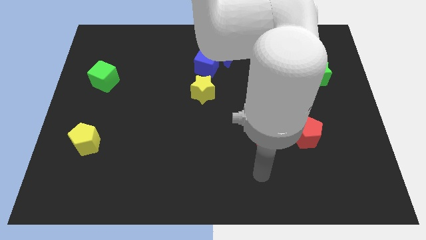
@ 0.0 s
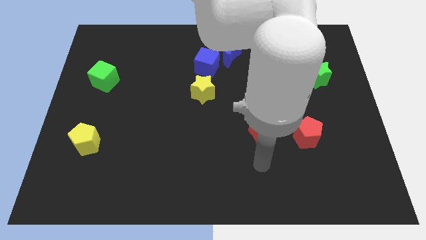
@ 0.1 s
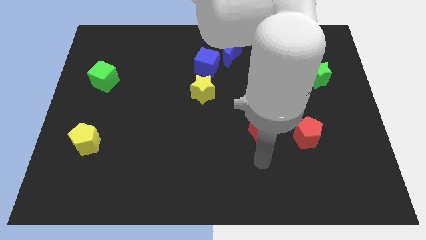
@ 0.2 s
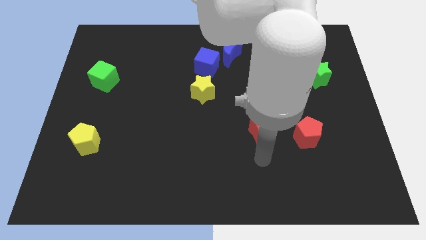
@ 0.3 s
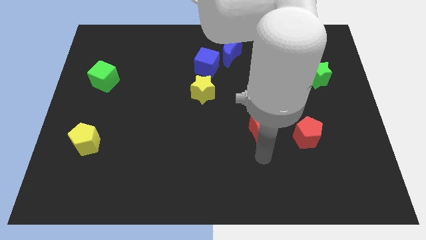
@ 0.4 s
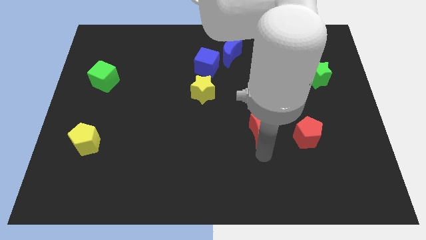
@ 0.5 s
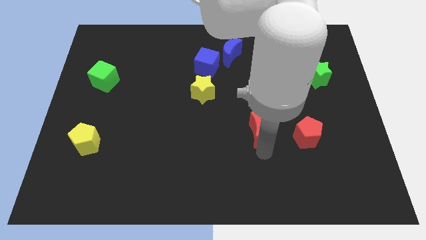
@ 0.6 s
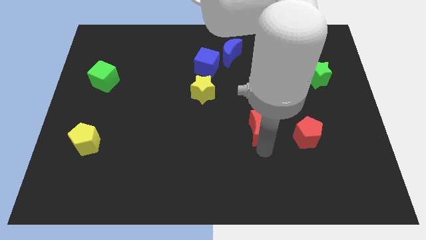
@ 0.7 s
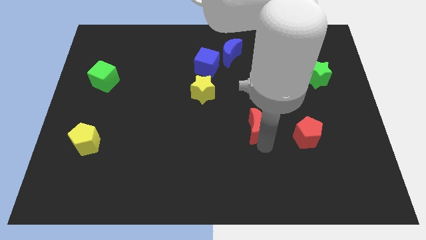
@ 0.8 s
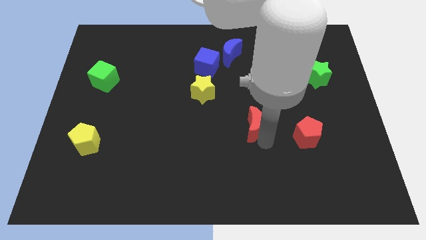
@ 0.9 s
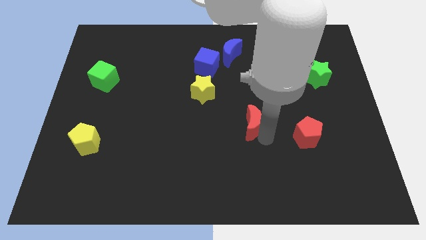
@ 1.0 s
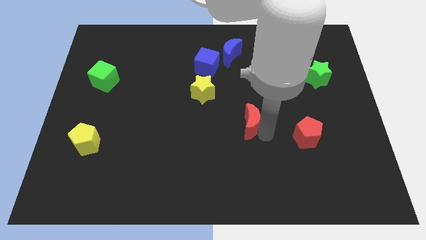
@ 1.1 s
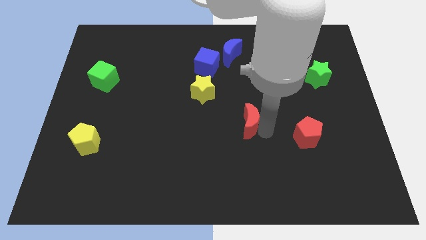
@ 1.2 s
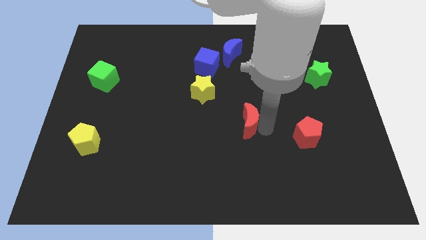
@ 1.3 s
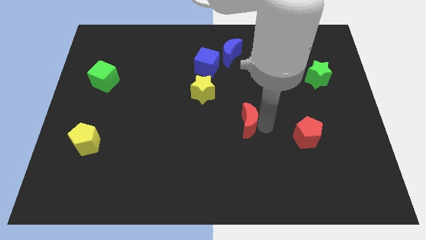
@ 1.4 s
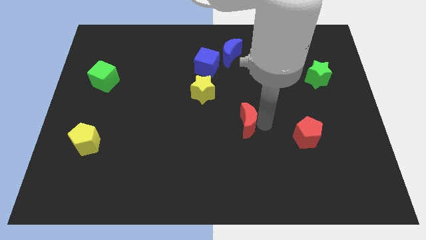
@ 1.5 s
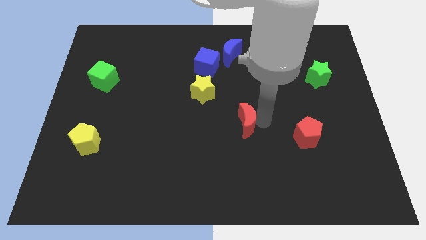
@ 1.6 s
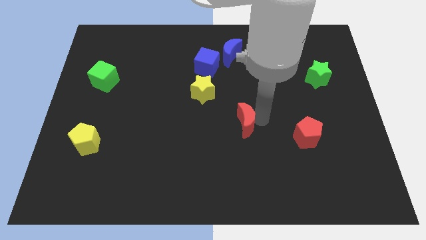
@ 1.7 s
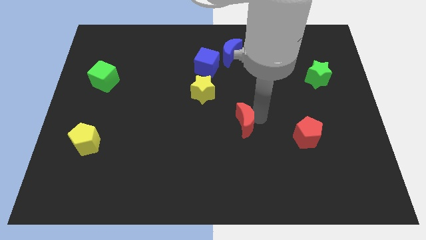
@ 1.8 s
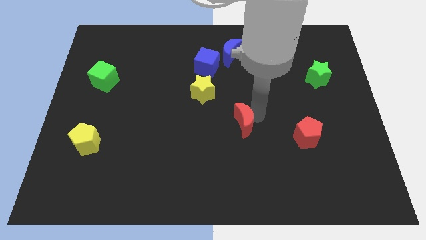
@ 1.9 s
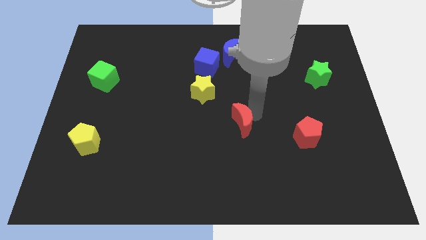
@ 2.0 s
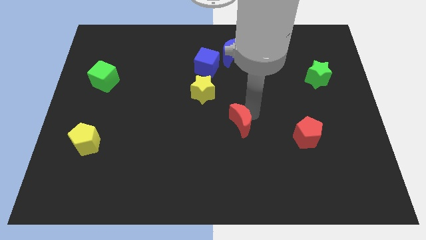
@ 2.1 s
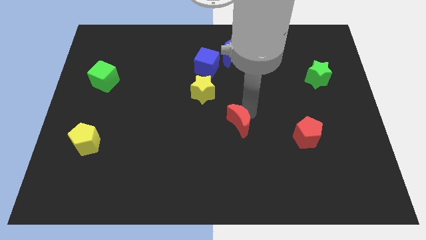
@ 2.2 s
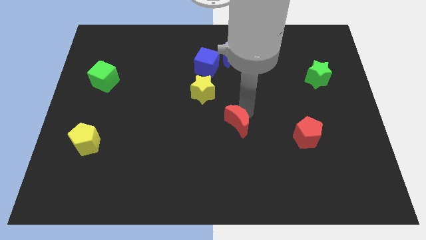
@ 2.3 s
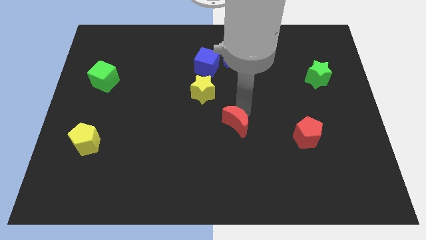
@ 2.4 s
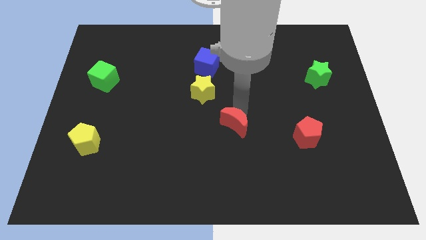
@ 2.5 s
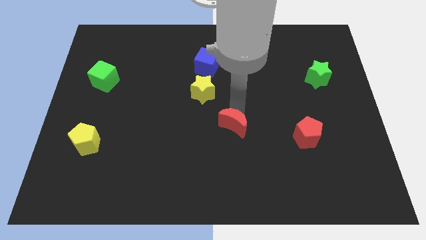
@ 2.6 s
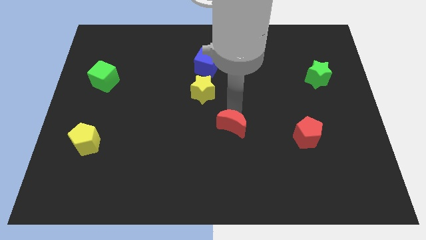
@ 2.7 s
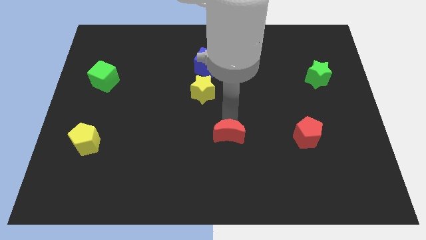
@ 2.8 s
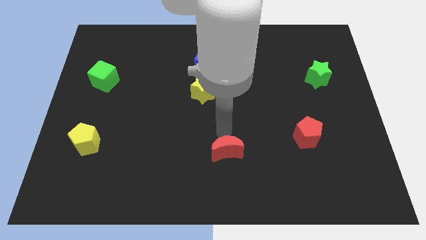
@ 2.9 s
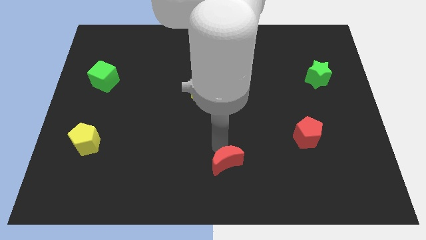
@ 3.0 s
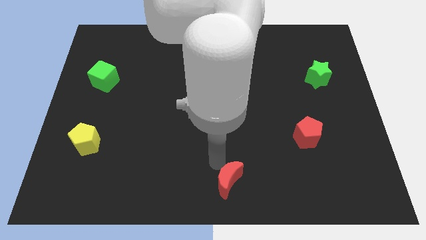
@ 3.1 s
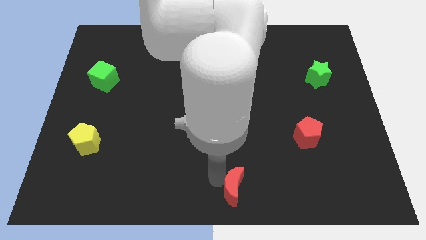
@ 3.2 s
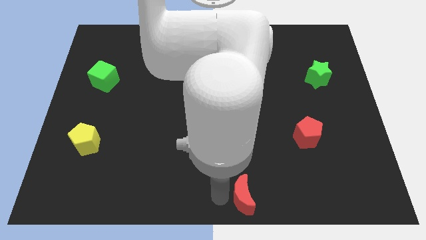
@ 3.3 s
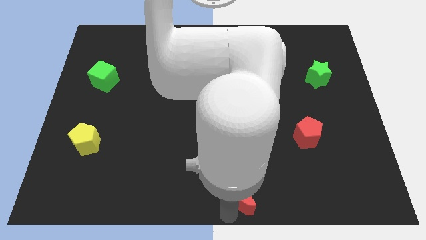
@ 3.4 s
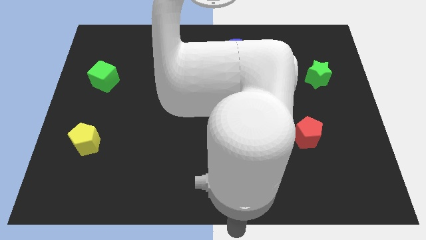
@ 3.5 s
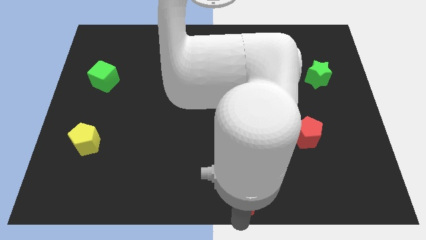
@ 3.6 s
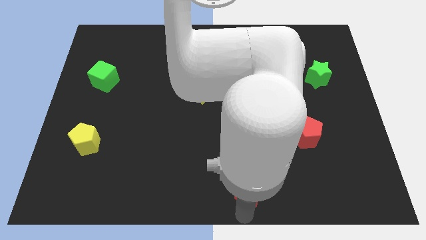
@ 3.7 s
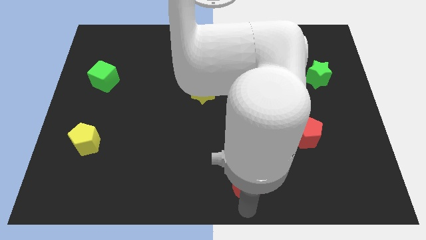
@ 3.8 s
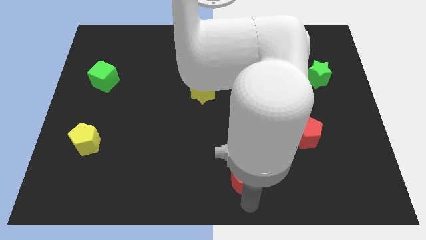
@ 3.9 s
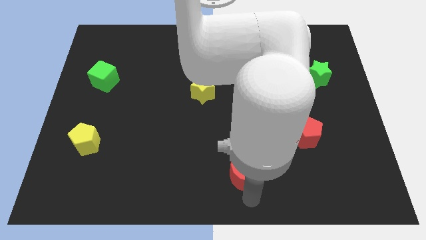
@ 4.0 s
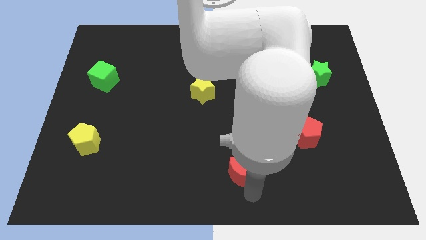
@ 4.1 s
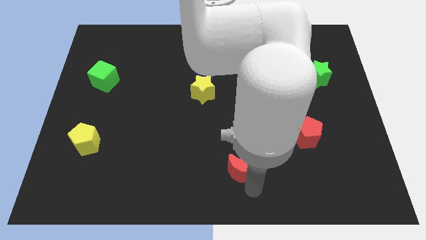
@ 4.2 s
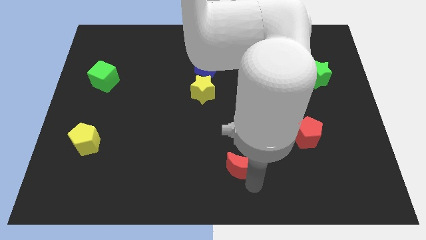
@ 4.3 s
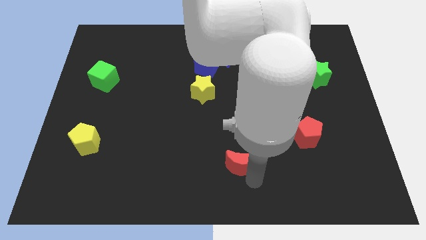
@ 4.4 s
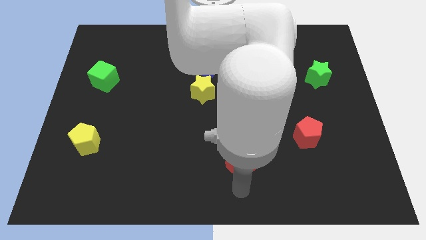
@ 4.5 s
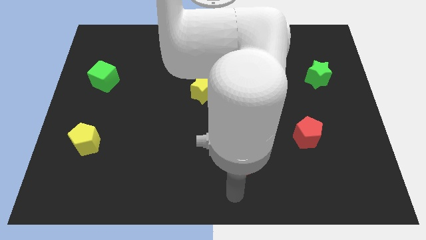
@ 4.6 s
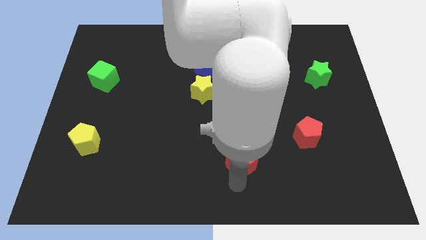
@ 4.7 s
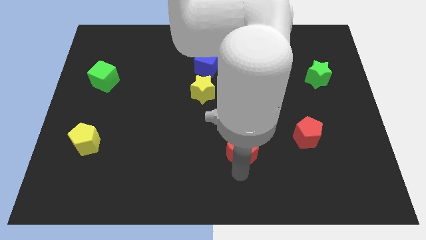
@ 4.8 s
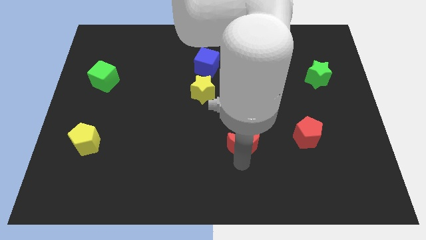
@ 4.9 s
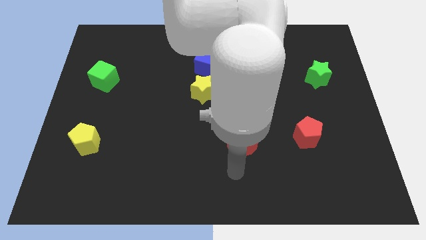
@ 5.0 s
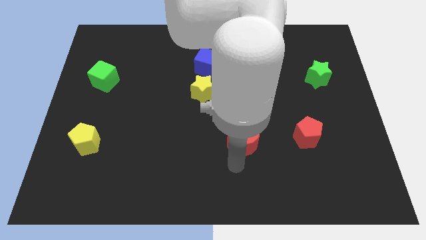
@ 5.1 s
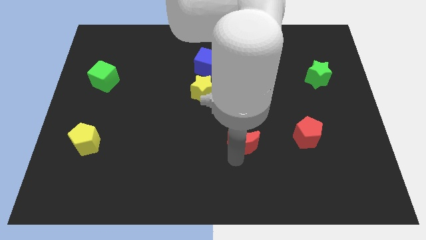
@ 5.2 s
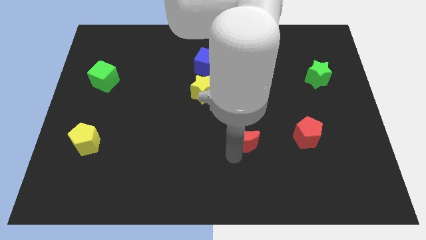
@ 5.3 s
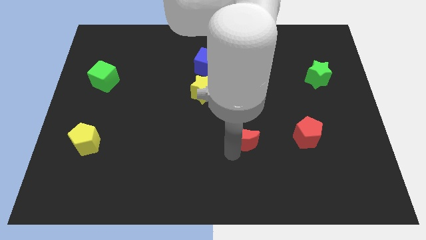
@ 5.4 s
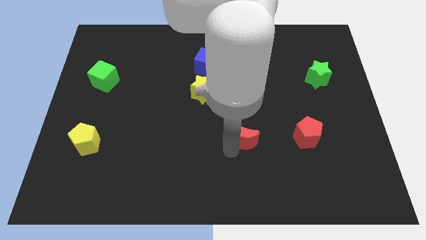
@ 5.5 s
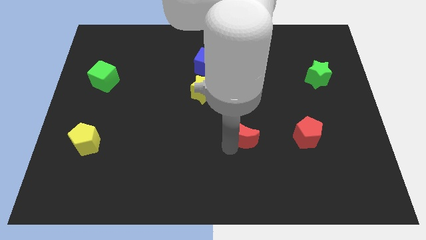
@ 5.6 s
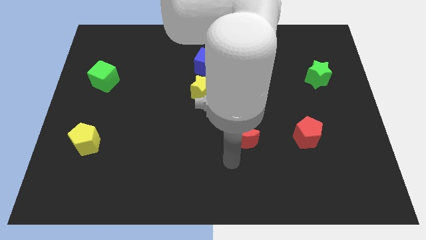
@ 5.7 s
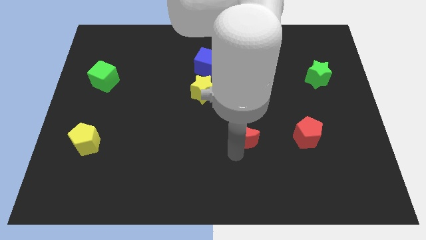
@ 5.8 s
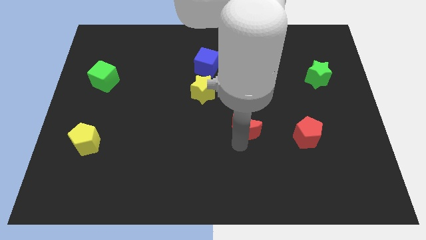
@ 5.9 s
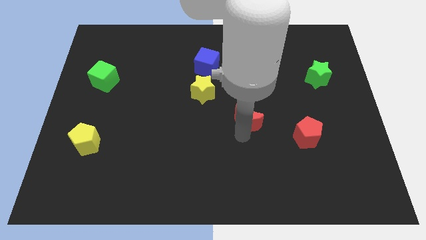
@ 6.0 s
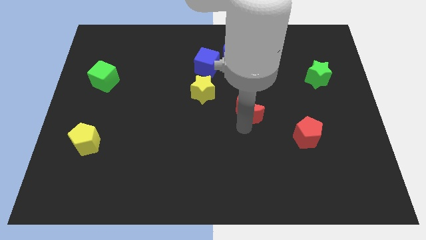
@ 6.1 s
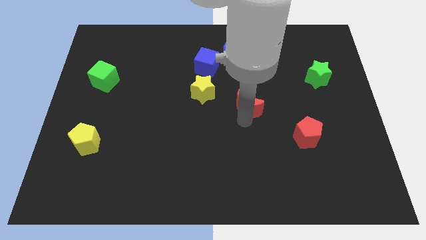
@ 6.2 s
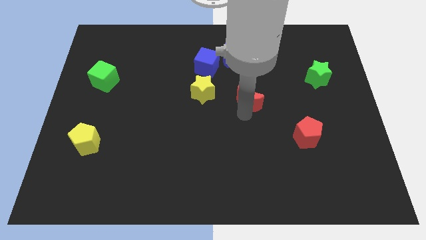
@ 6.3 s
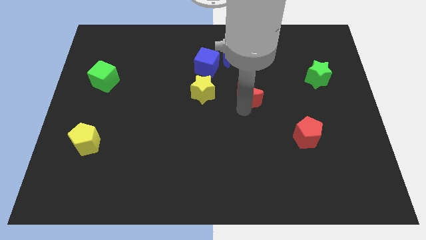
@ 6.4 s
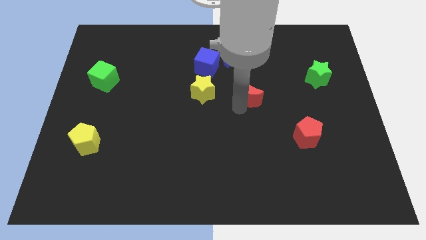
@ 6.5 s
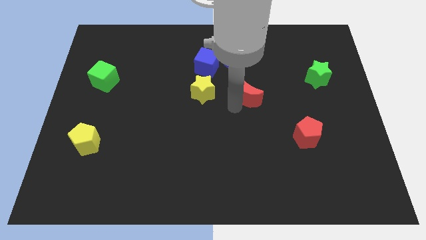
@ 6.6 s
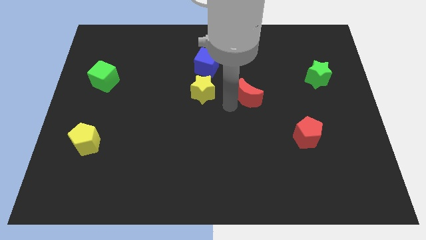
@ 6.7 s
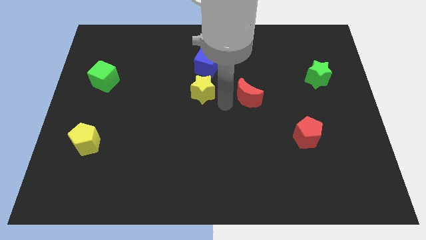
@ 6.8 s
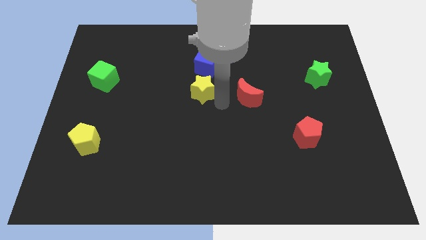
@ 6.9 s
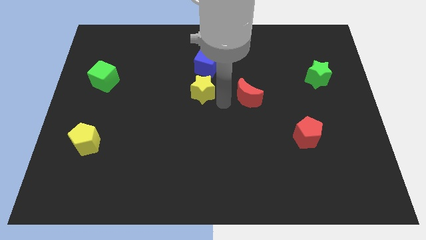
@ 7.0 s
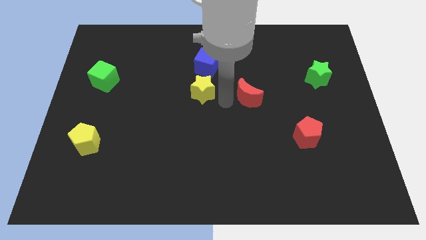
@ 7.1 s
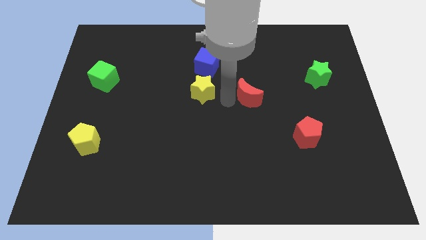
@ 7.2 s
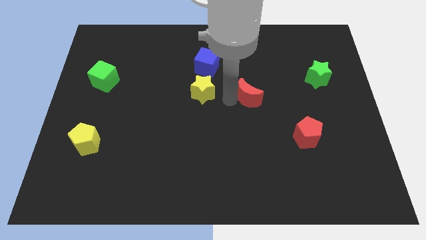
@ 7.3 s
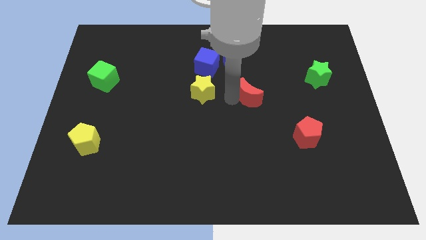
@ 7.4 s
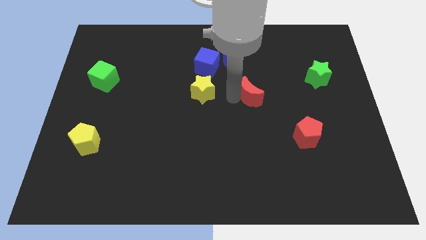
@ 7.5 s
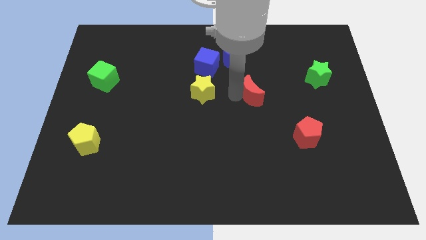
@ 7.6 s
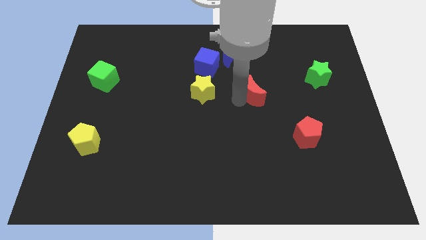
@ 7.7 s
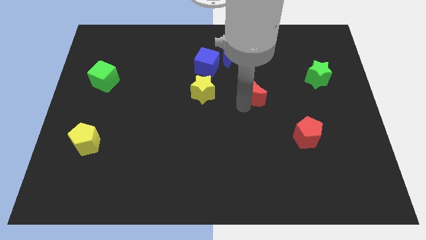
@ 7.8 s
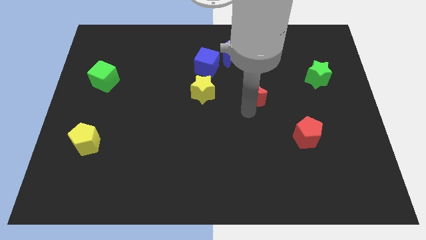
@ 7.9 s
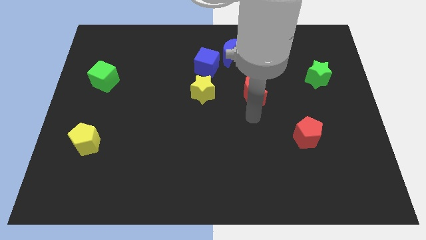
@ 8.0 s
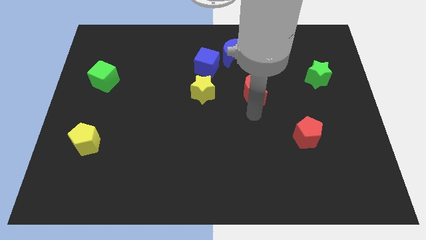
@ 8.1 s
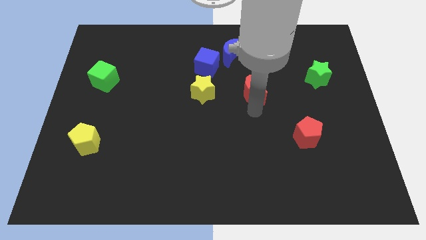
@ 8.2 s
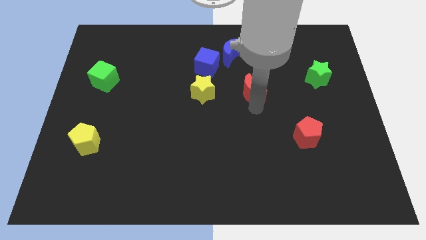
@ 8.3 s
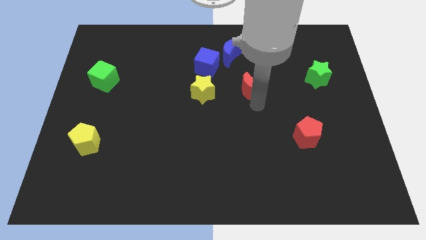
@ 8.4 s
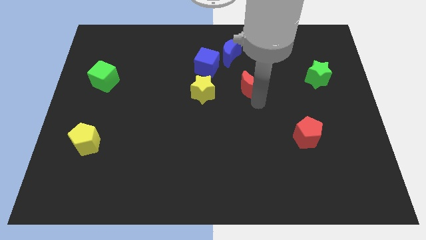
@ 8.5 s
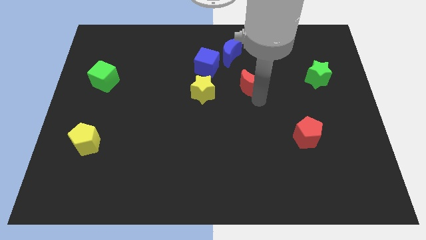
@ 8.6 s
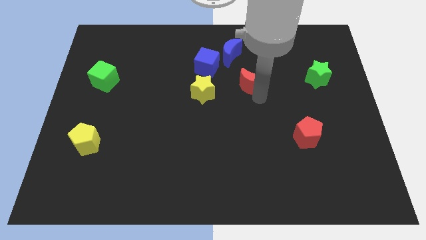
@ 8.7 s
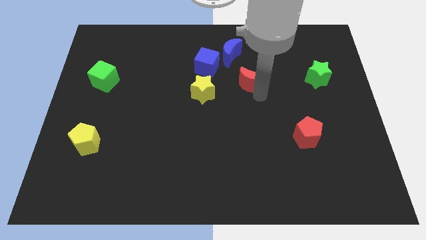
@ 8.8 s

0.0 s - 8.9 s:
slide the red moon to the bottom right side of the blue moon
